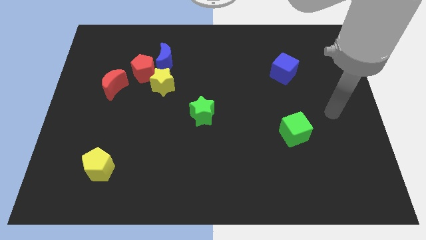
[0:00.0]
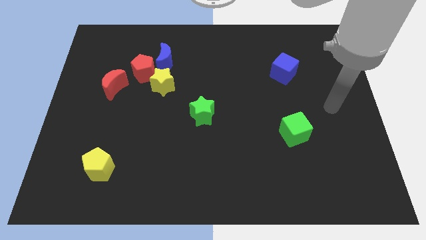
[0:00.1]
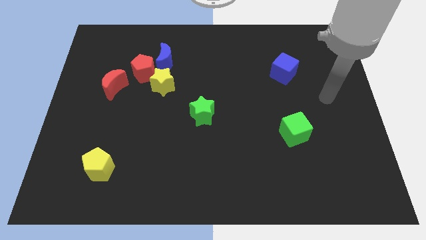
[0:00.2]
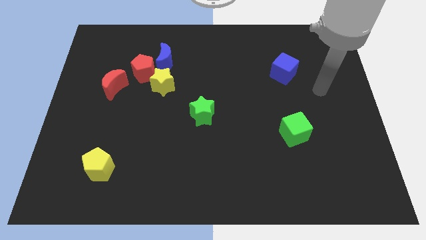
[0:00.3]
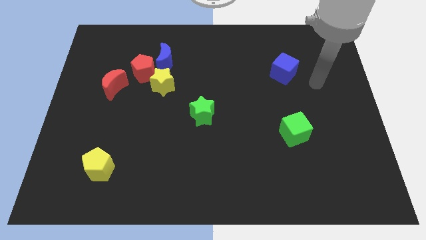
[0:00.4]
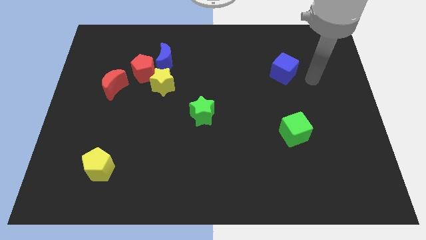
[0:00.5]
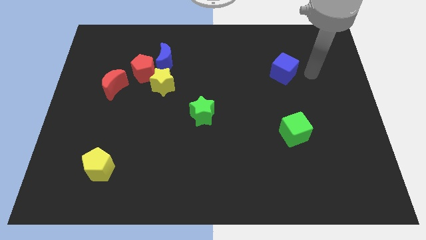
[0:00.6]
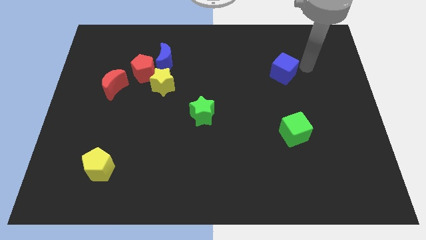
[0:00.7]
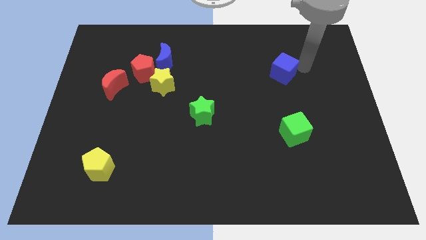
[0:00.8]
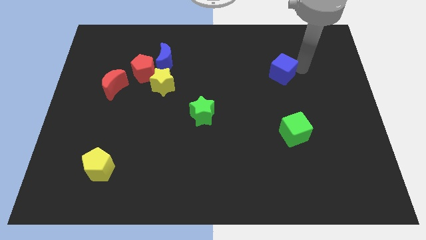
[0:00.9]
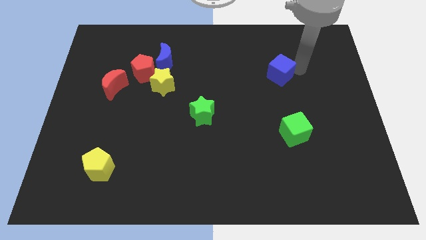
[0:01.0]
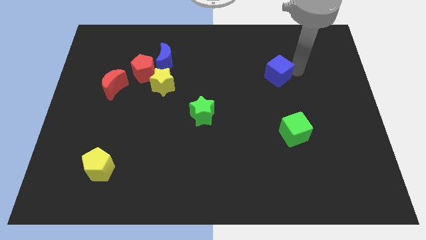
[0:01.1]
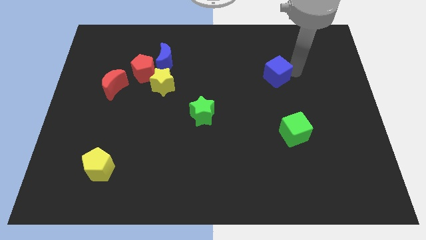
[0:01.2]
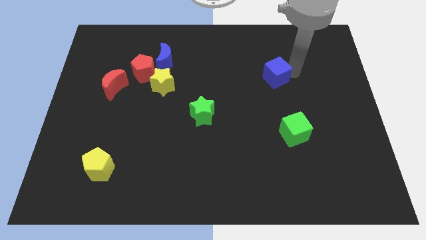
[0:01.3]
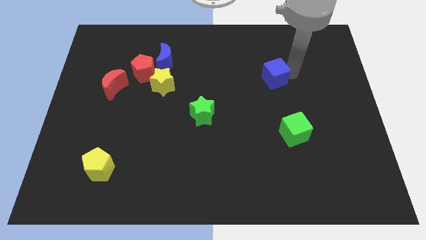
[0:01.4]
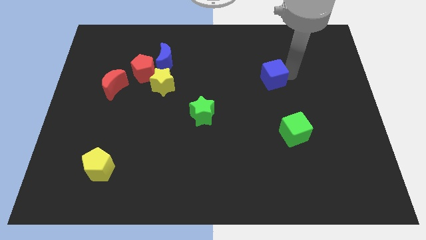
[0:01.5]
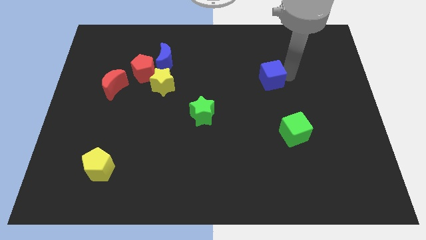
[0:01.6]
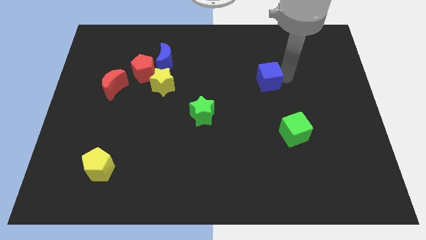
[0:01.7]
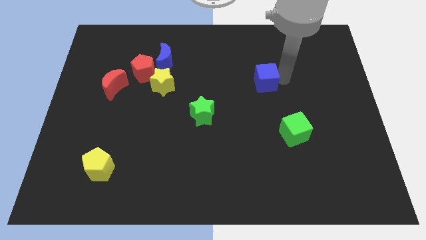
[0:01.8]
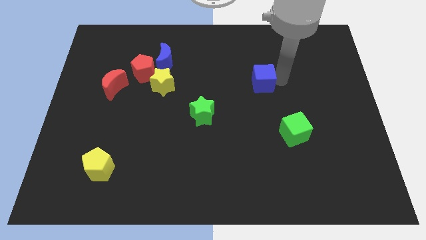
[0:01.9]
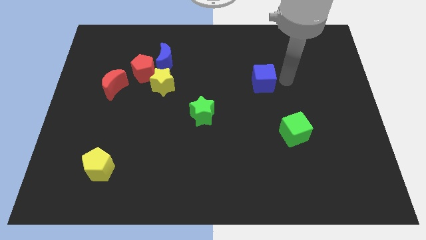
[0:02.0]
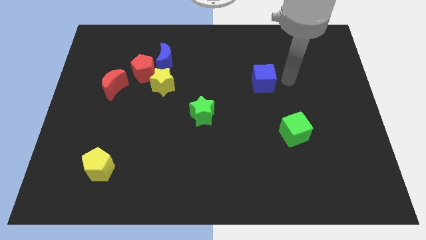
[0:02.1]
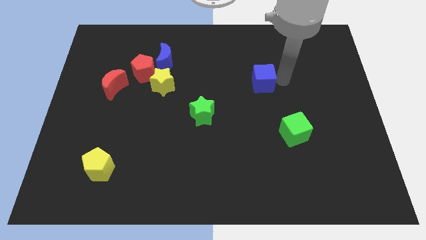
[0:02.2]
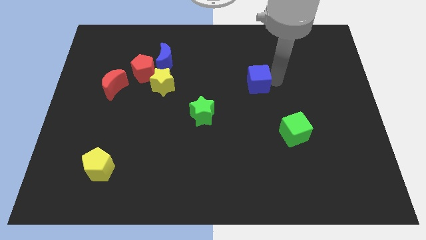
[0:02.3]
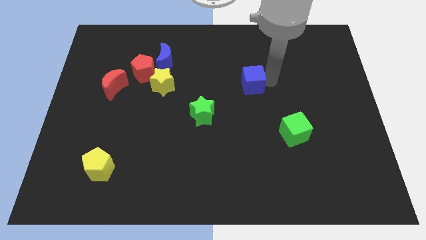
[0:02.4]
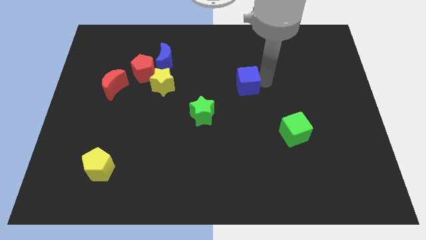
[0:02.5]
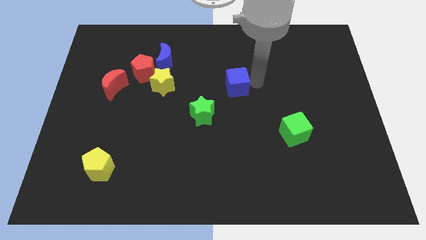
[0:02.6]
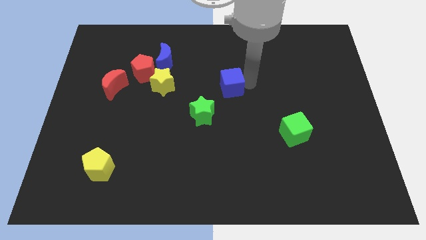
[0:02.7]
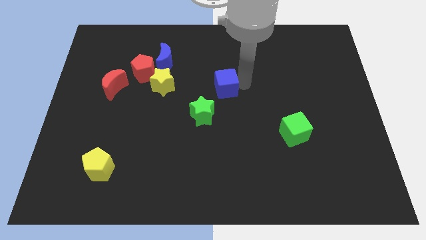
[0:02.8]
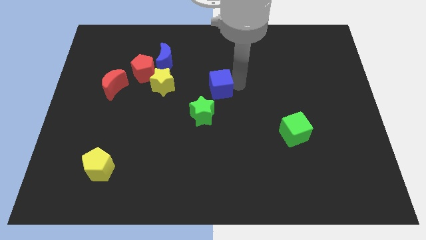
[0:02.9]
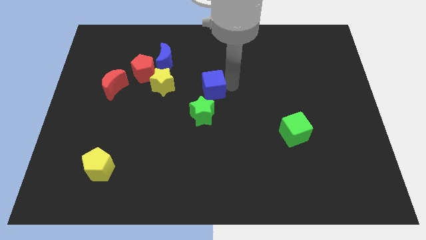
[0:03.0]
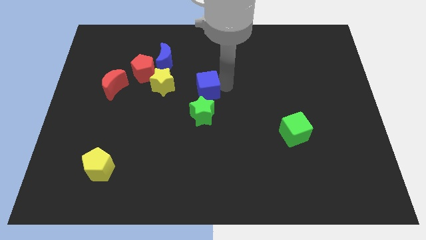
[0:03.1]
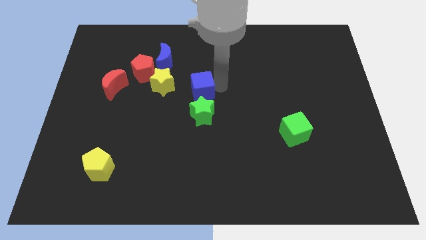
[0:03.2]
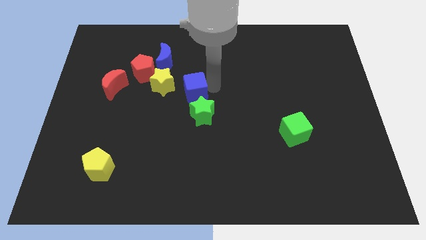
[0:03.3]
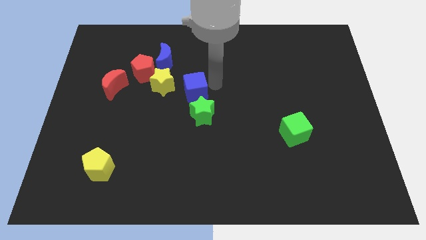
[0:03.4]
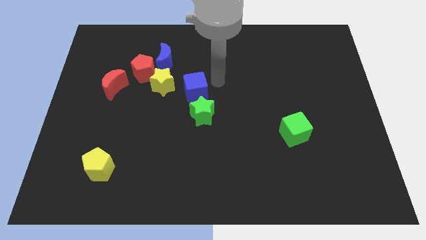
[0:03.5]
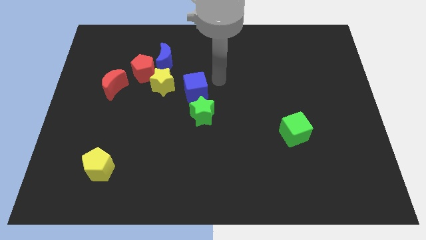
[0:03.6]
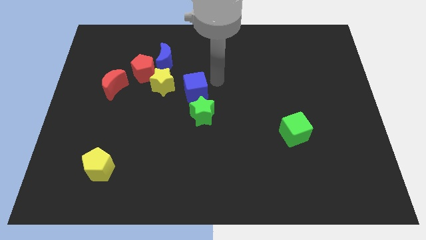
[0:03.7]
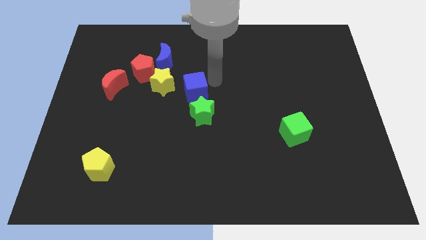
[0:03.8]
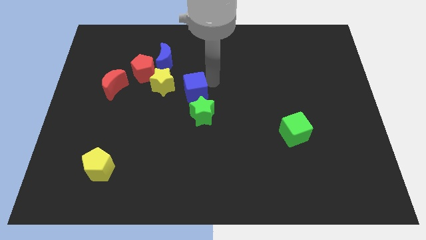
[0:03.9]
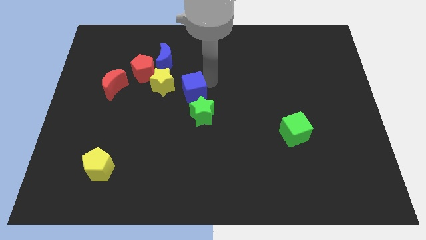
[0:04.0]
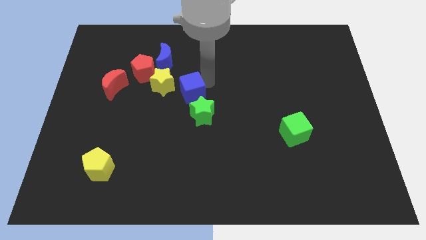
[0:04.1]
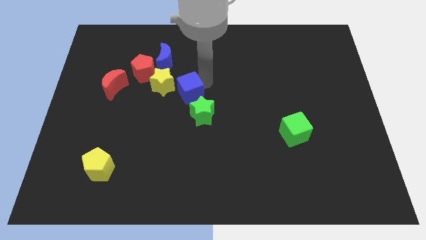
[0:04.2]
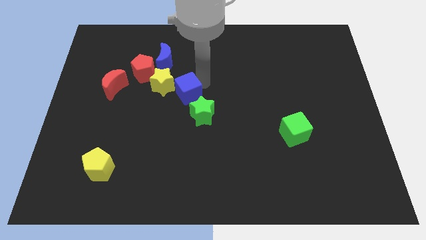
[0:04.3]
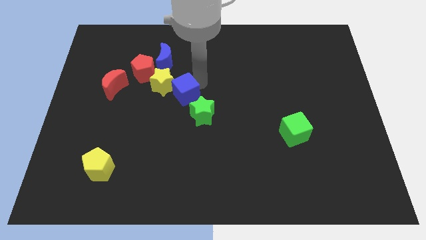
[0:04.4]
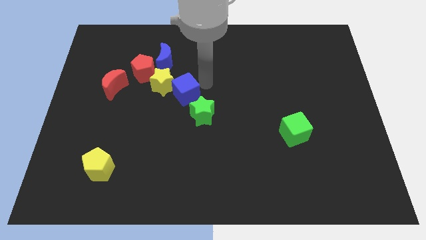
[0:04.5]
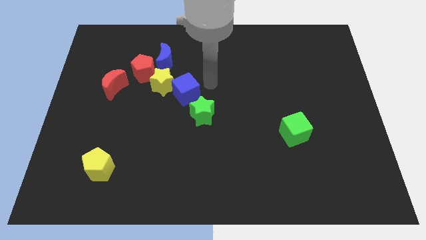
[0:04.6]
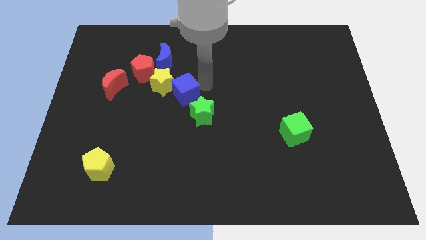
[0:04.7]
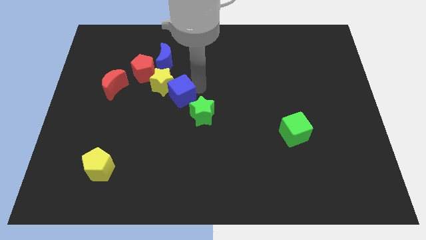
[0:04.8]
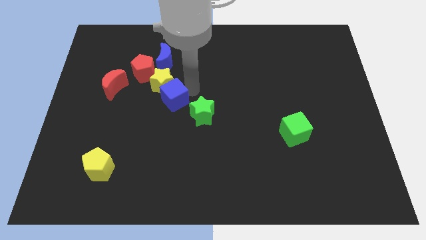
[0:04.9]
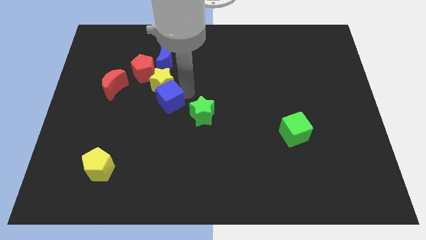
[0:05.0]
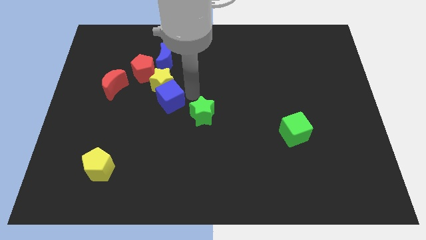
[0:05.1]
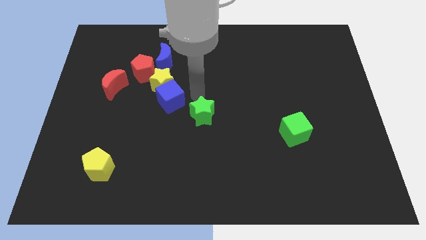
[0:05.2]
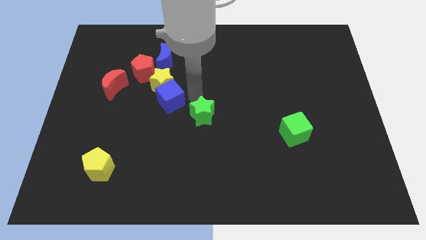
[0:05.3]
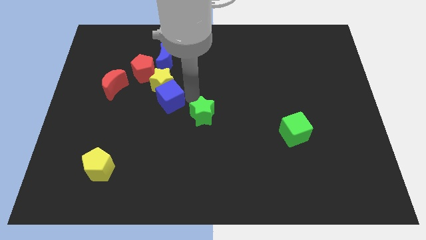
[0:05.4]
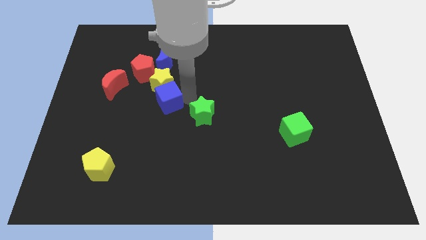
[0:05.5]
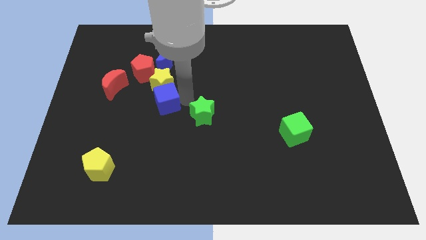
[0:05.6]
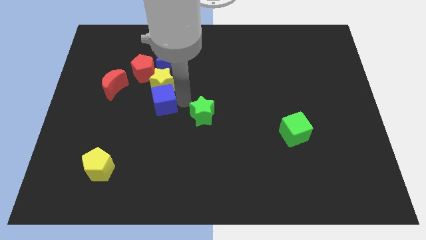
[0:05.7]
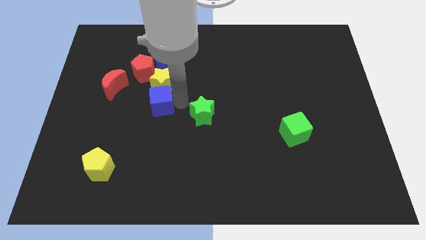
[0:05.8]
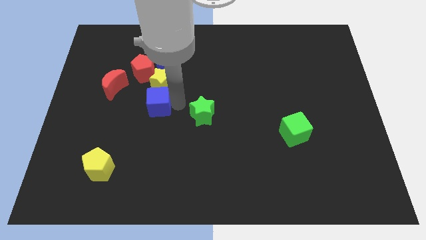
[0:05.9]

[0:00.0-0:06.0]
put the blue cube to the bottom of the red pentagon

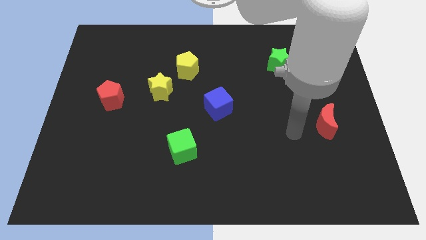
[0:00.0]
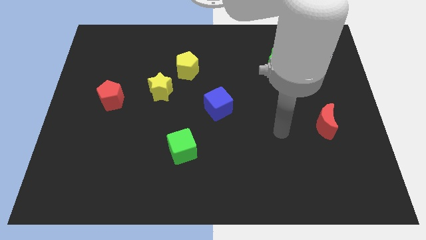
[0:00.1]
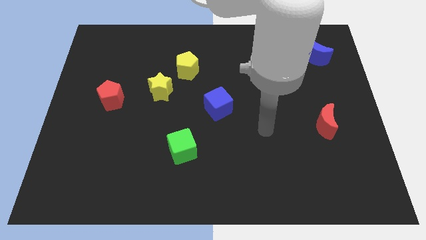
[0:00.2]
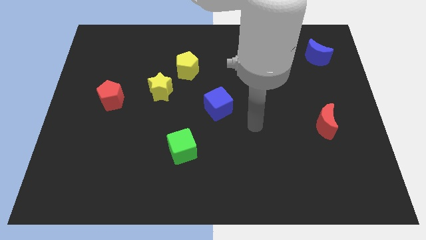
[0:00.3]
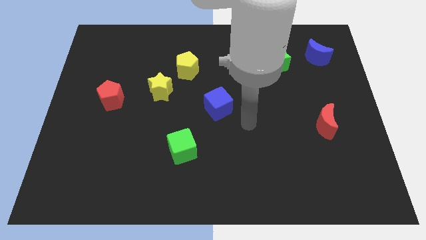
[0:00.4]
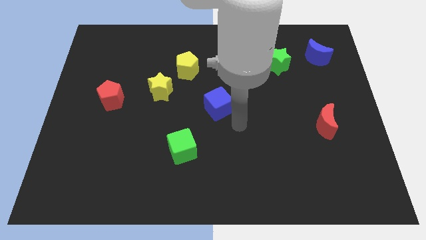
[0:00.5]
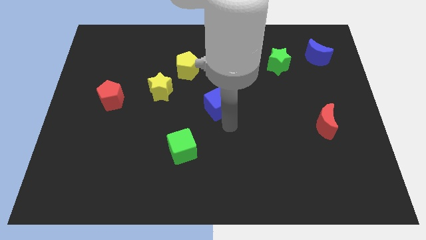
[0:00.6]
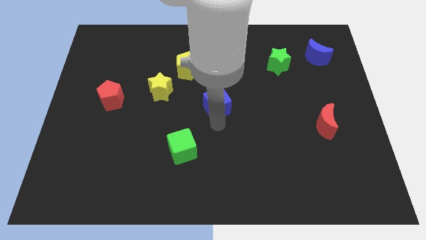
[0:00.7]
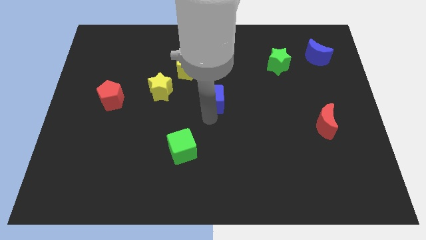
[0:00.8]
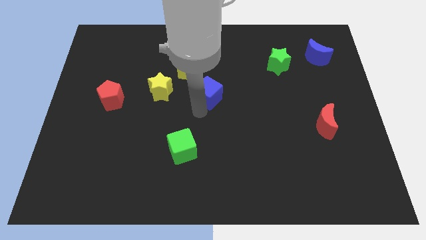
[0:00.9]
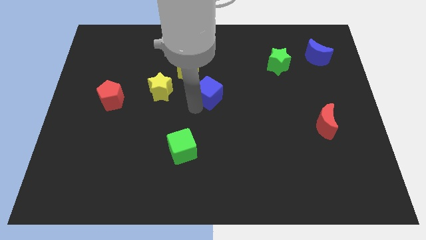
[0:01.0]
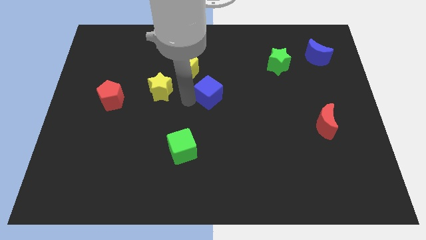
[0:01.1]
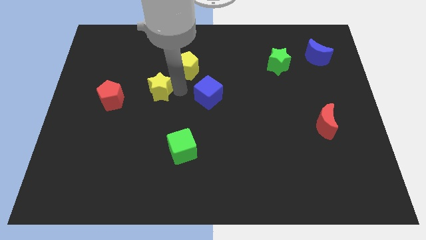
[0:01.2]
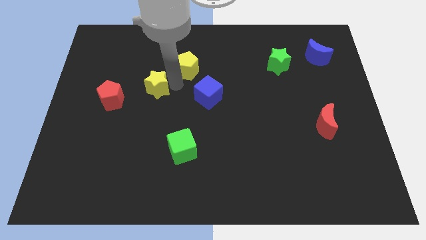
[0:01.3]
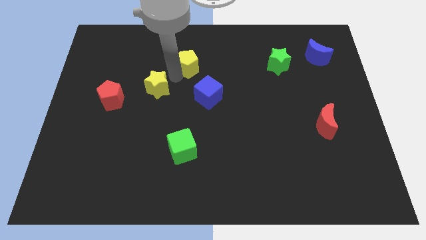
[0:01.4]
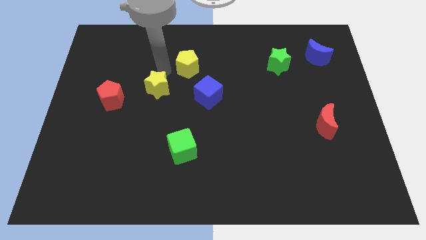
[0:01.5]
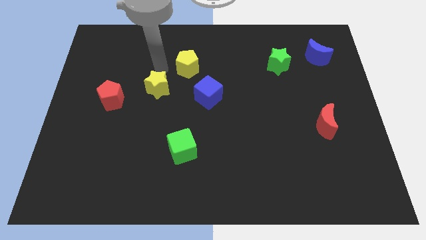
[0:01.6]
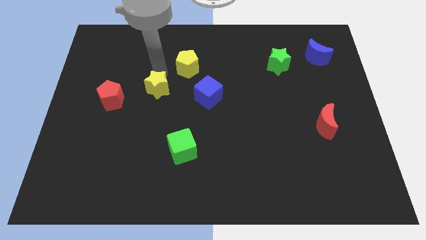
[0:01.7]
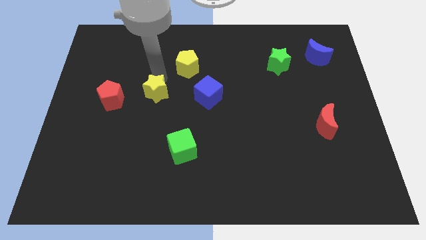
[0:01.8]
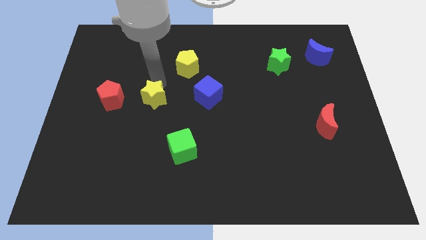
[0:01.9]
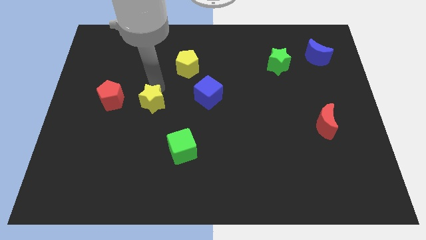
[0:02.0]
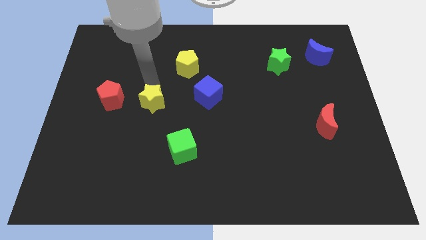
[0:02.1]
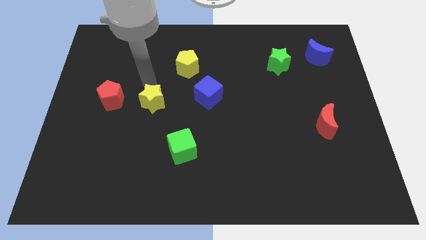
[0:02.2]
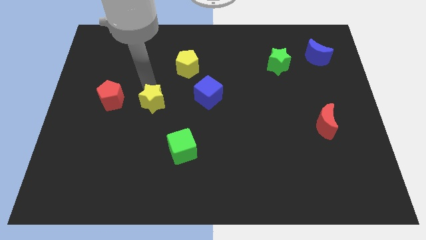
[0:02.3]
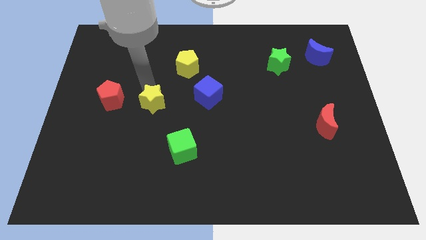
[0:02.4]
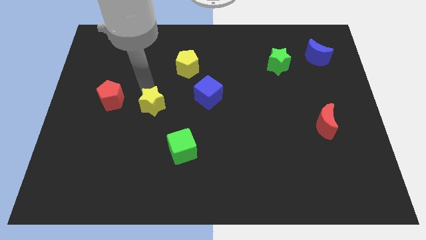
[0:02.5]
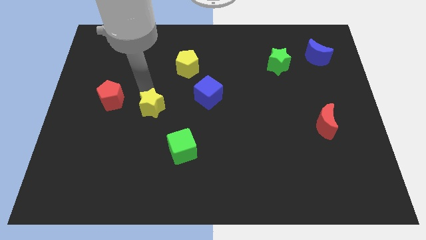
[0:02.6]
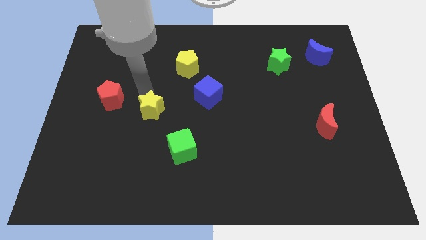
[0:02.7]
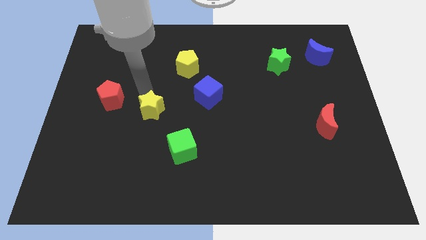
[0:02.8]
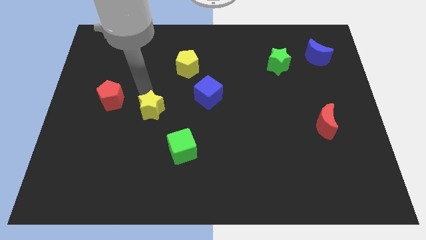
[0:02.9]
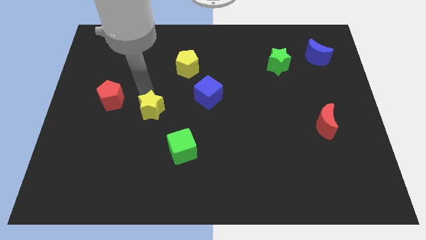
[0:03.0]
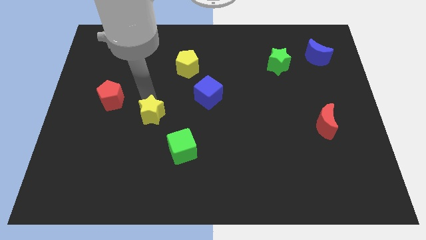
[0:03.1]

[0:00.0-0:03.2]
push the yellow star to the top left of the green cube
